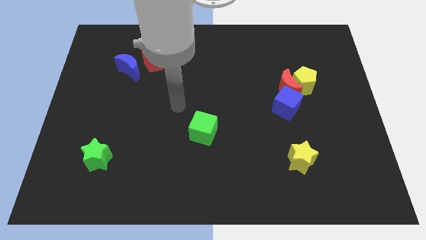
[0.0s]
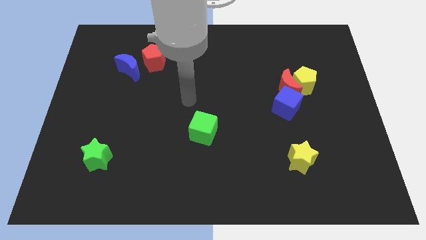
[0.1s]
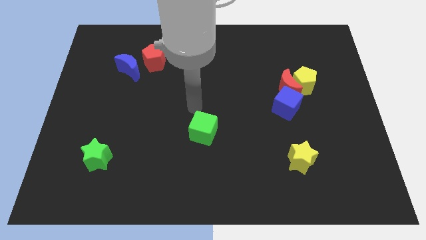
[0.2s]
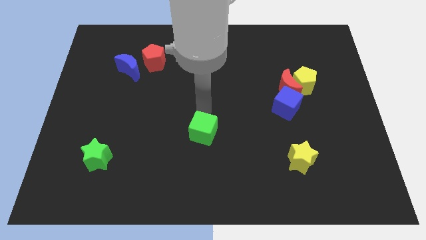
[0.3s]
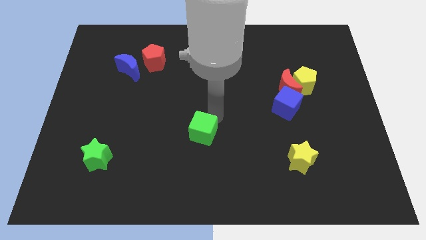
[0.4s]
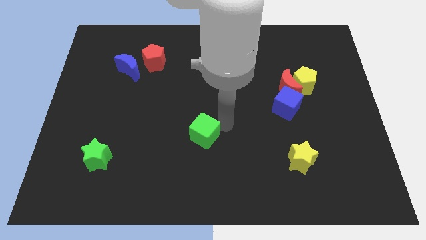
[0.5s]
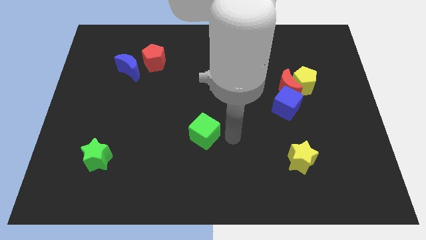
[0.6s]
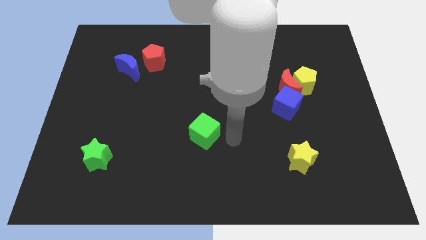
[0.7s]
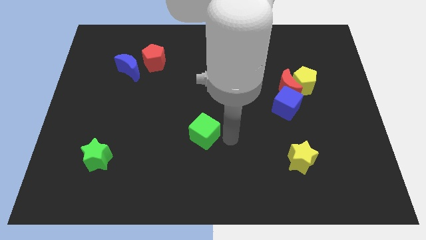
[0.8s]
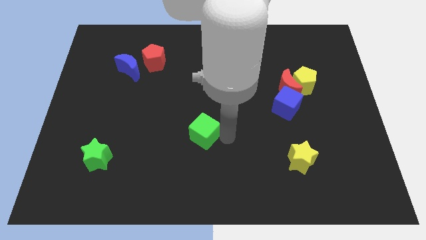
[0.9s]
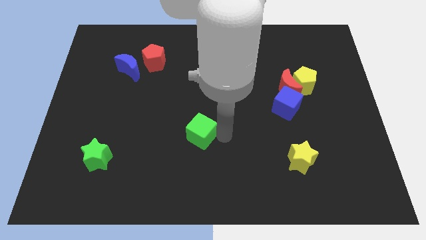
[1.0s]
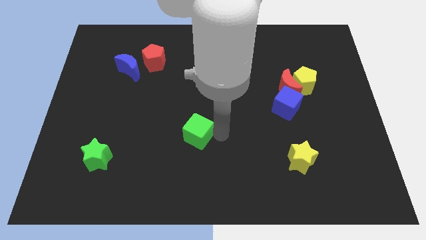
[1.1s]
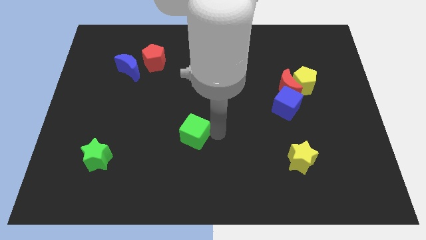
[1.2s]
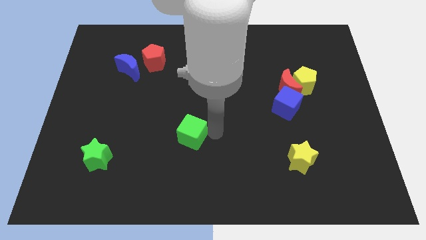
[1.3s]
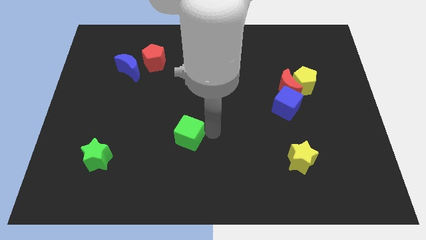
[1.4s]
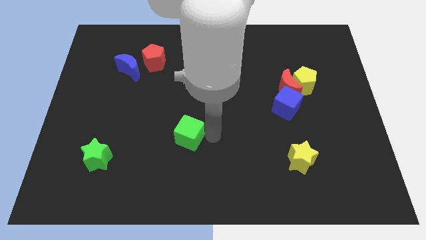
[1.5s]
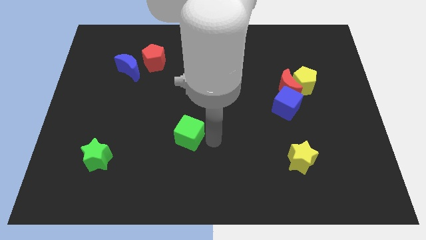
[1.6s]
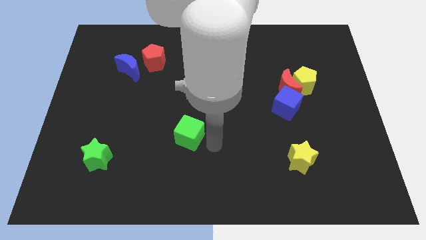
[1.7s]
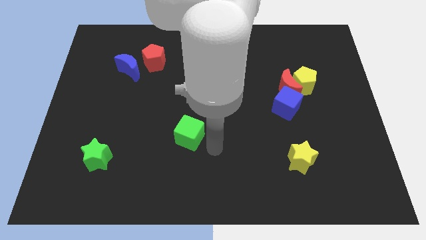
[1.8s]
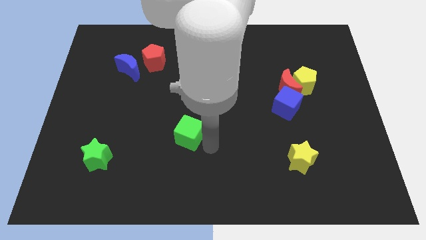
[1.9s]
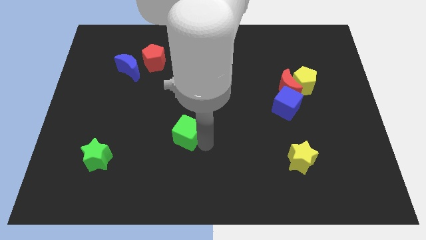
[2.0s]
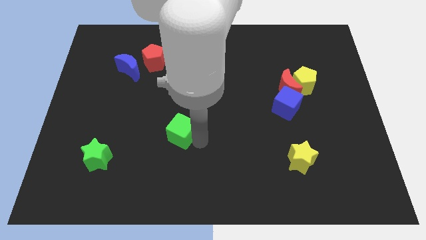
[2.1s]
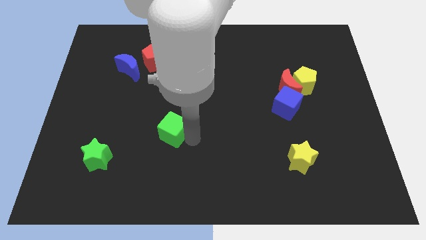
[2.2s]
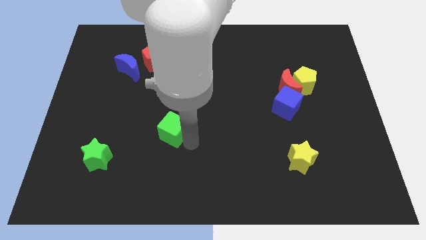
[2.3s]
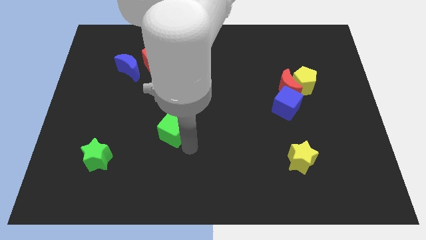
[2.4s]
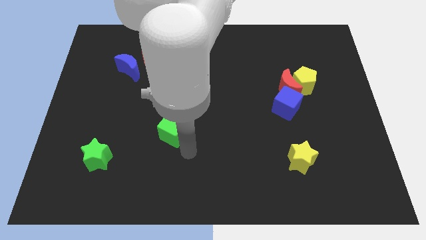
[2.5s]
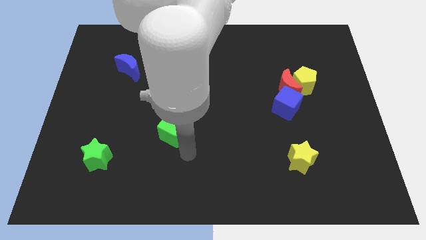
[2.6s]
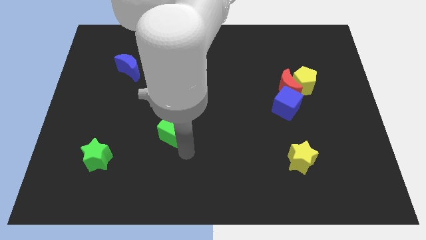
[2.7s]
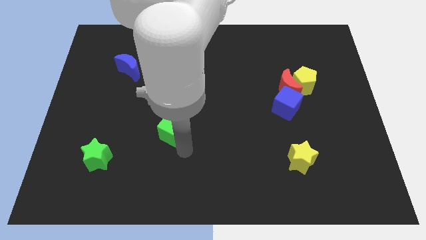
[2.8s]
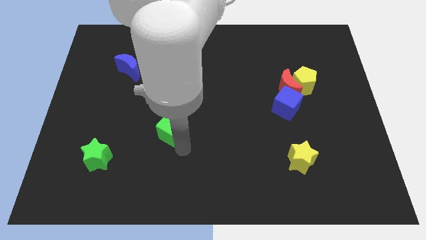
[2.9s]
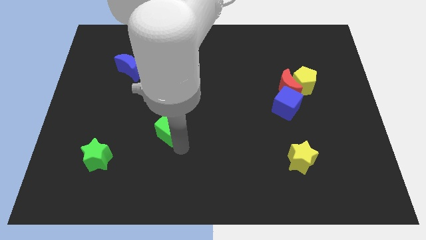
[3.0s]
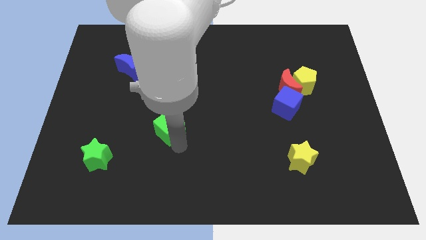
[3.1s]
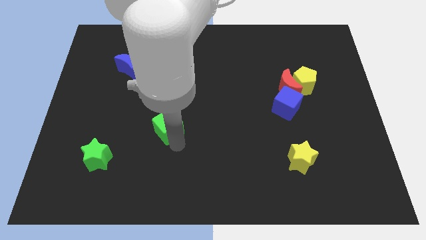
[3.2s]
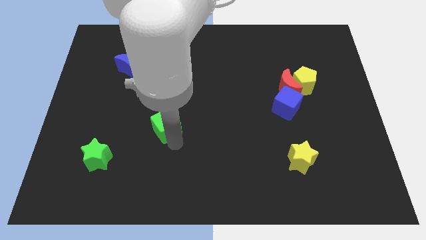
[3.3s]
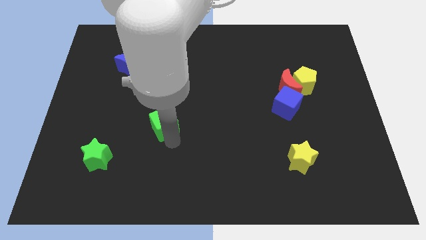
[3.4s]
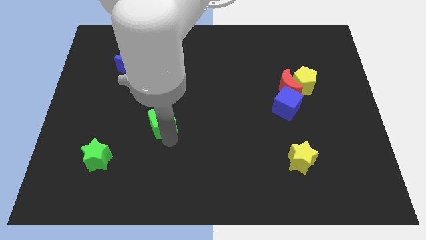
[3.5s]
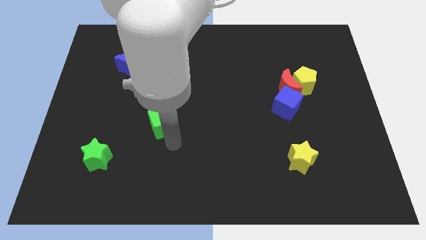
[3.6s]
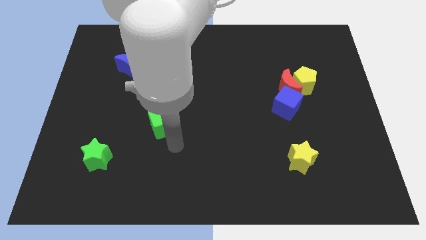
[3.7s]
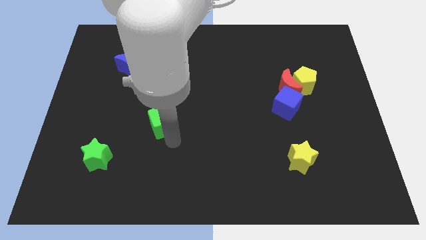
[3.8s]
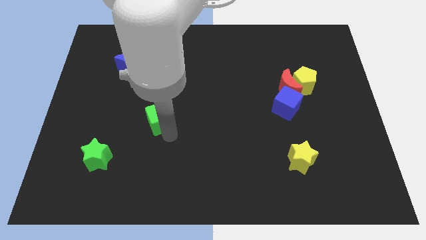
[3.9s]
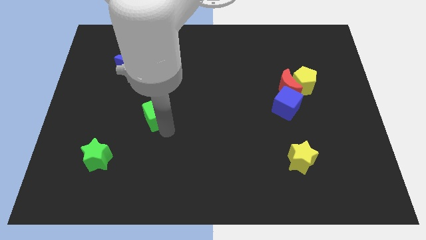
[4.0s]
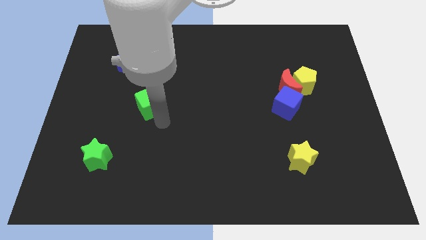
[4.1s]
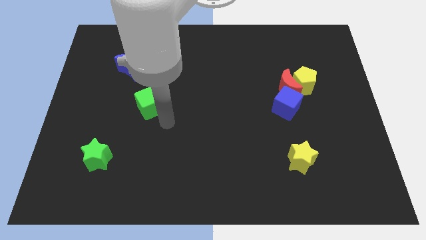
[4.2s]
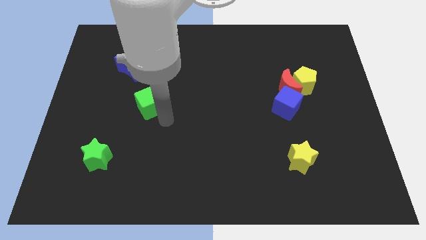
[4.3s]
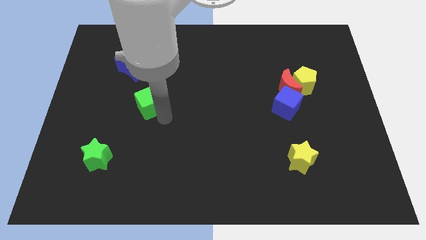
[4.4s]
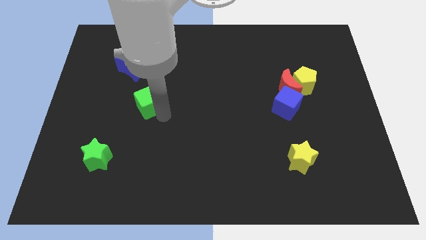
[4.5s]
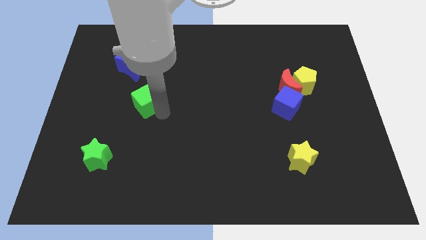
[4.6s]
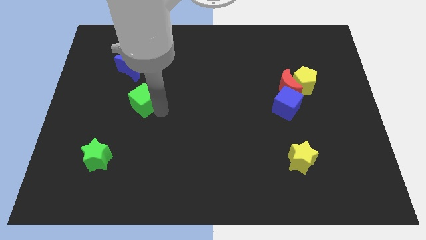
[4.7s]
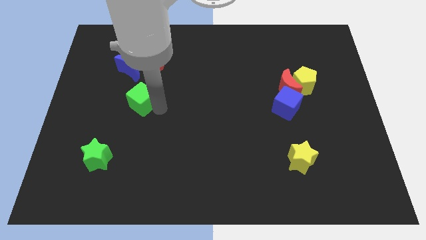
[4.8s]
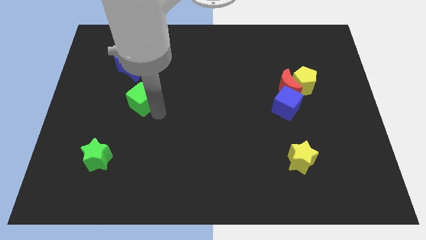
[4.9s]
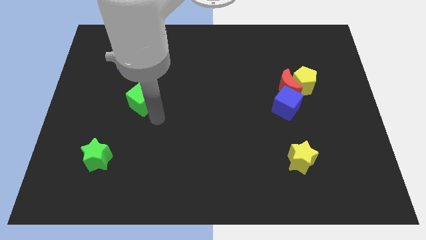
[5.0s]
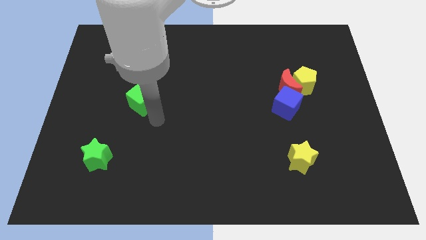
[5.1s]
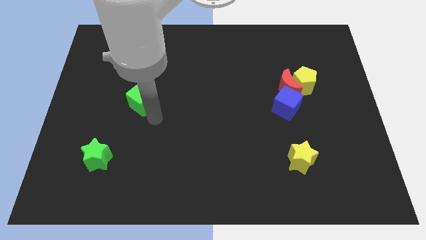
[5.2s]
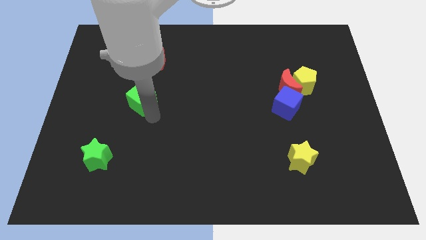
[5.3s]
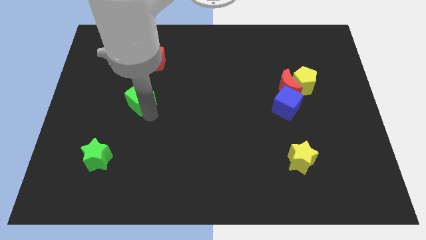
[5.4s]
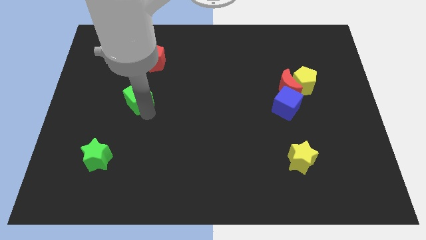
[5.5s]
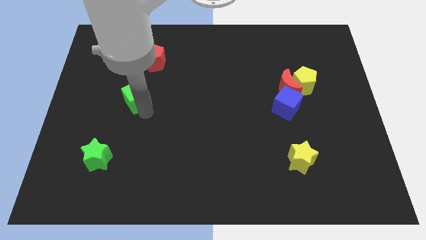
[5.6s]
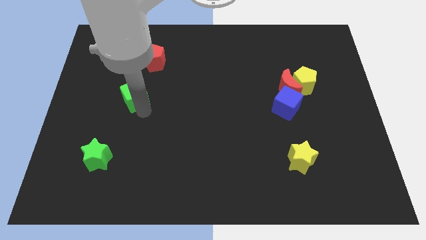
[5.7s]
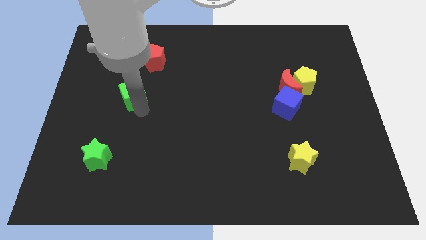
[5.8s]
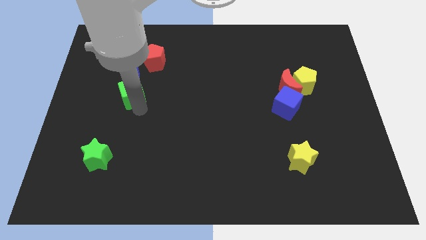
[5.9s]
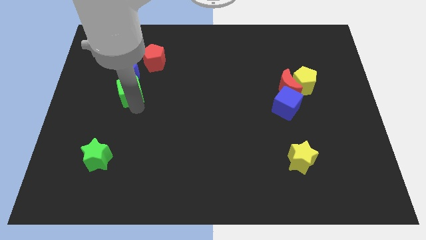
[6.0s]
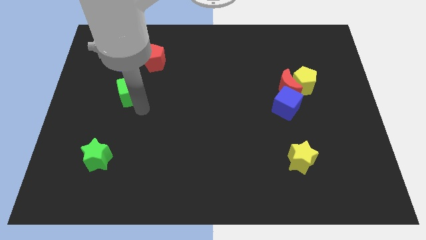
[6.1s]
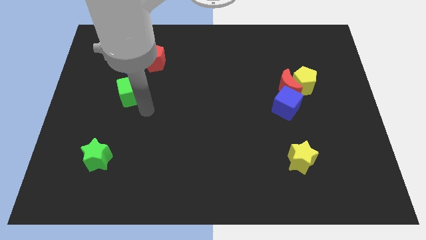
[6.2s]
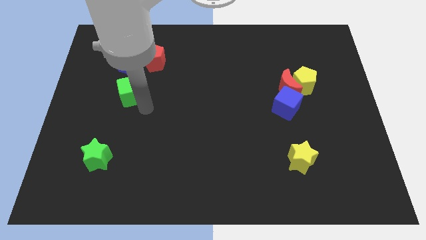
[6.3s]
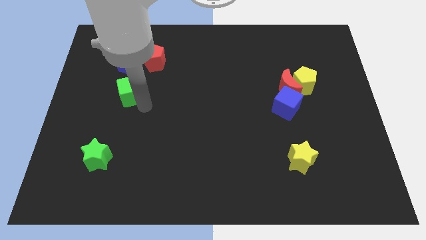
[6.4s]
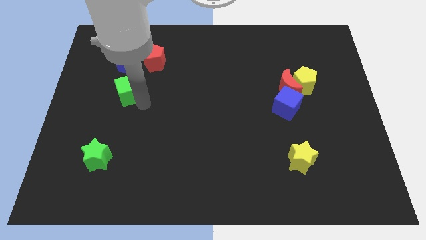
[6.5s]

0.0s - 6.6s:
push the green cube up and left

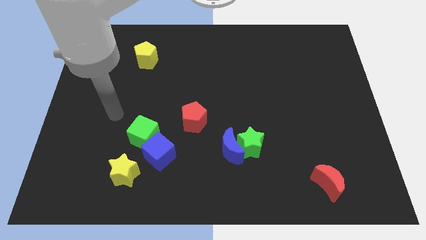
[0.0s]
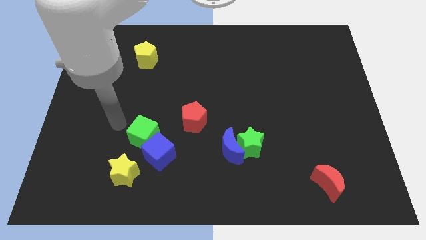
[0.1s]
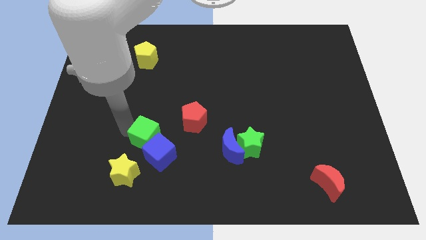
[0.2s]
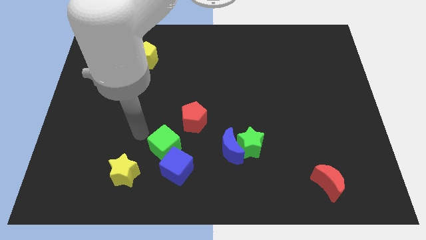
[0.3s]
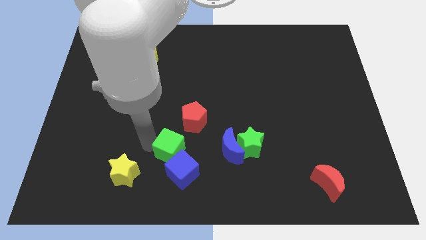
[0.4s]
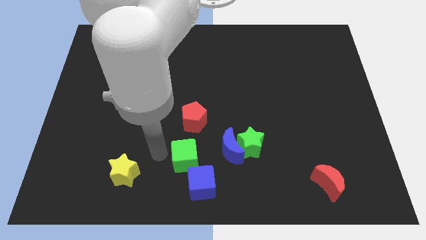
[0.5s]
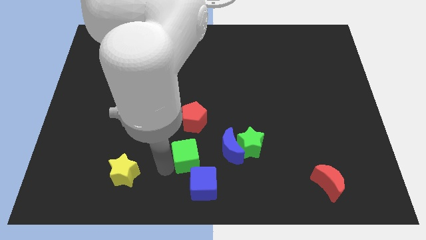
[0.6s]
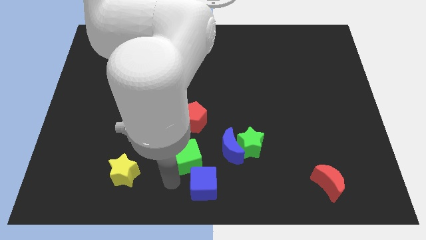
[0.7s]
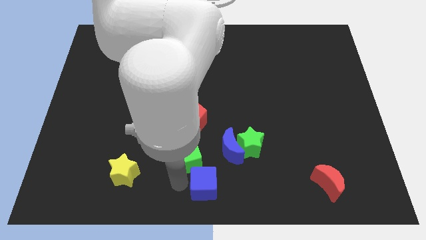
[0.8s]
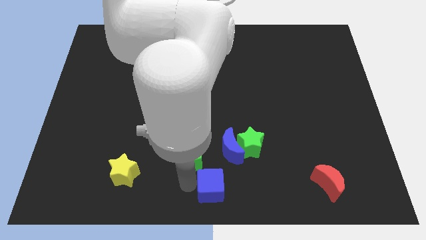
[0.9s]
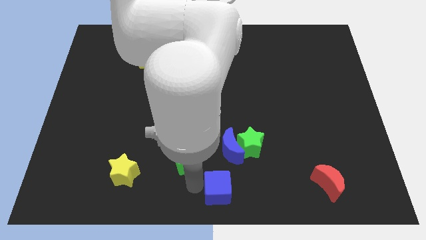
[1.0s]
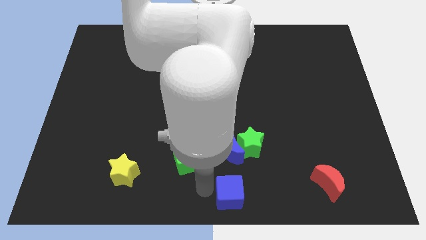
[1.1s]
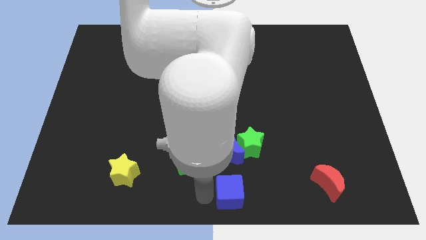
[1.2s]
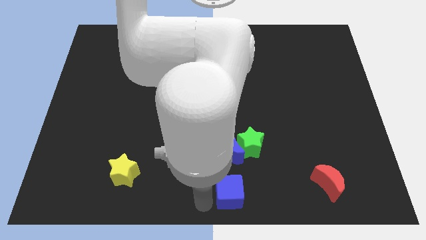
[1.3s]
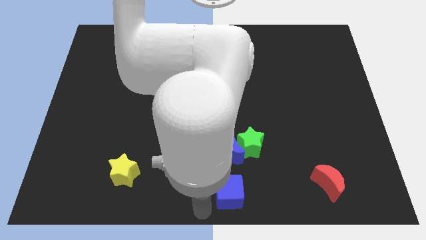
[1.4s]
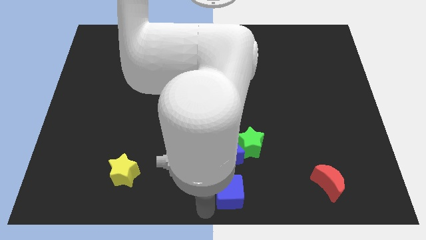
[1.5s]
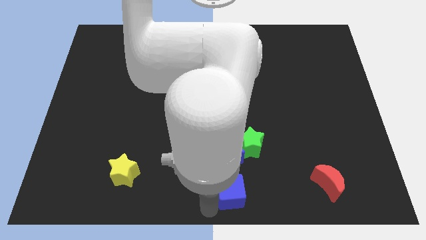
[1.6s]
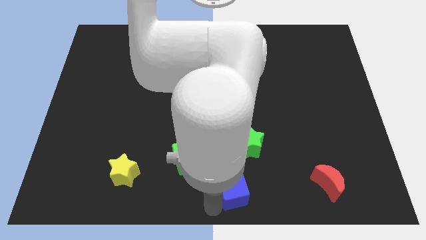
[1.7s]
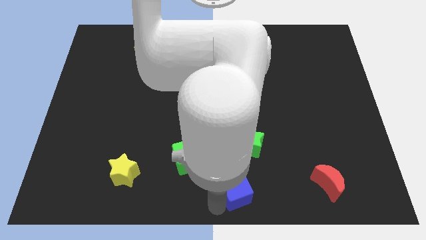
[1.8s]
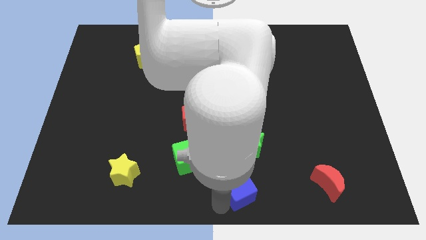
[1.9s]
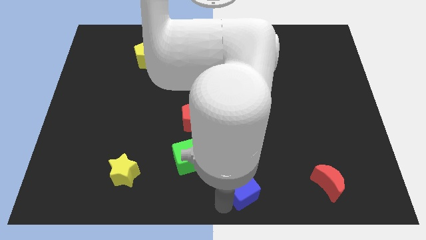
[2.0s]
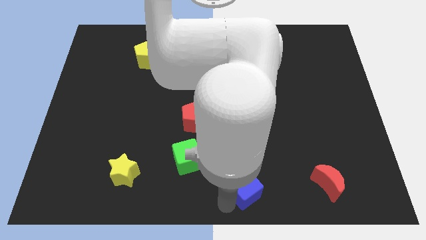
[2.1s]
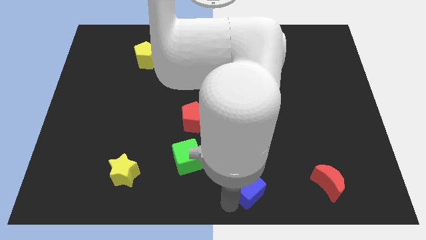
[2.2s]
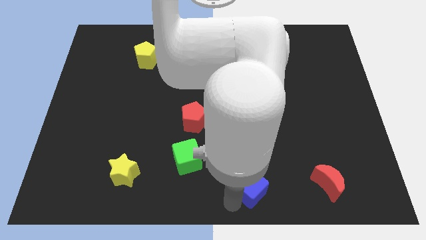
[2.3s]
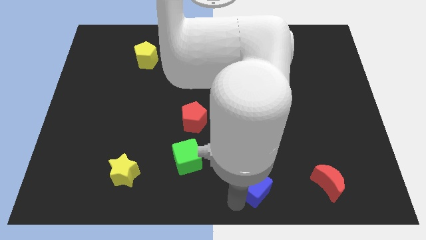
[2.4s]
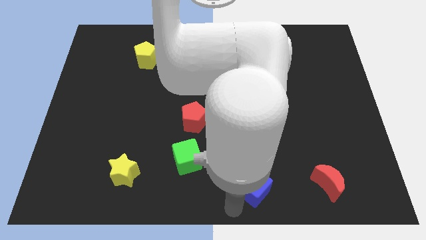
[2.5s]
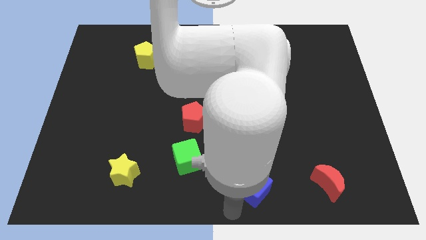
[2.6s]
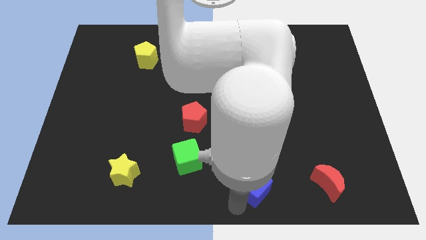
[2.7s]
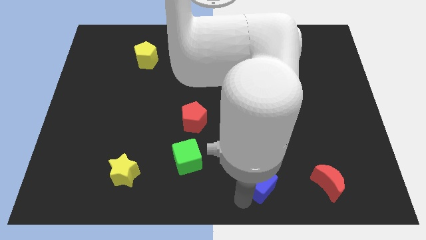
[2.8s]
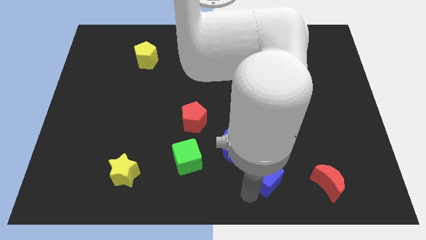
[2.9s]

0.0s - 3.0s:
push the blue cube right
